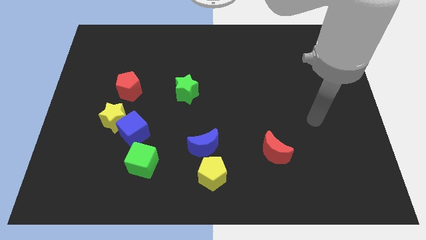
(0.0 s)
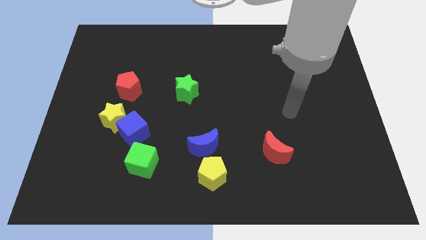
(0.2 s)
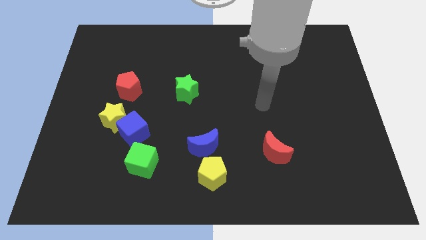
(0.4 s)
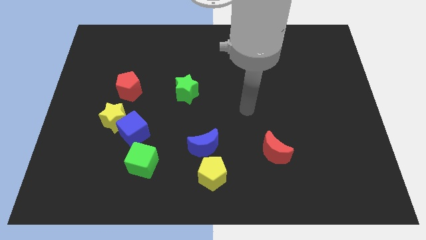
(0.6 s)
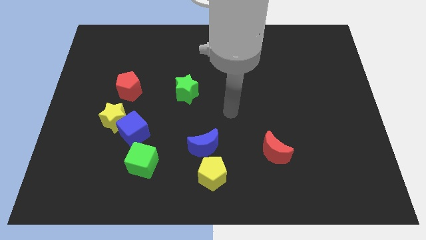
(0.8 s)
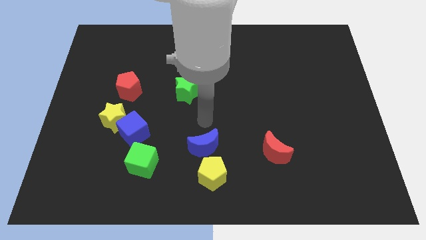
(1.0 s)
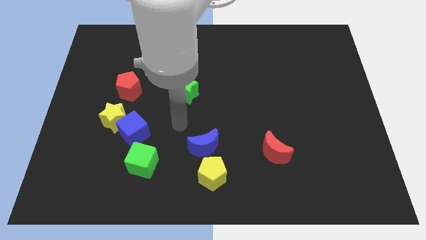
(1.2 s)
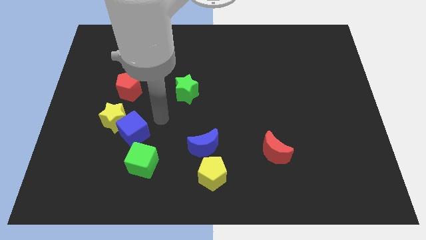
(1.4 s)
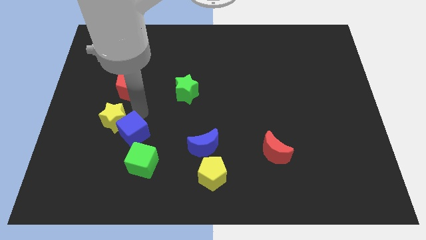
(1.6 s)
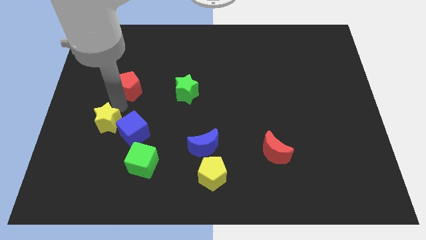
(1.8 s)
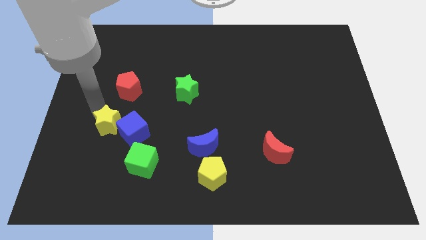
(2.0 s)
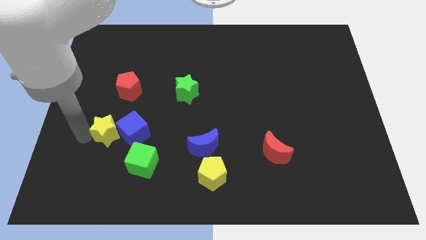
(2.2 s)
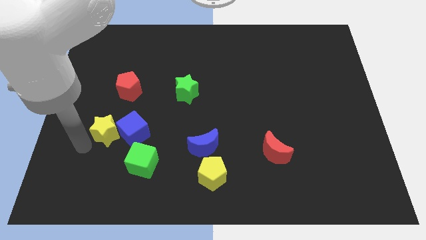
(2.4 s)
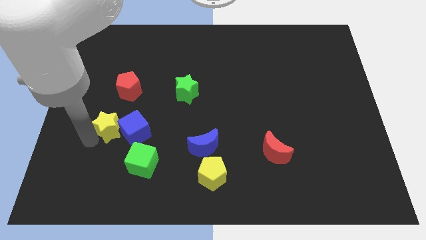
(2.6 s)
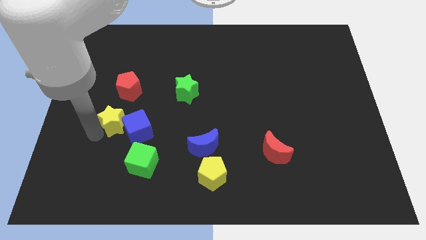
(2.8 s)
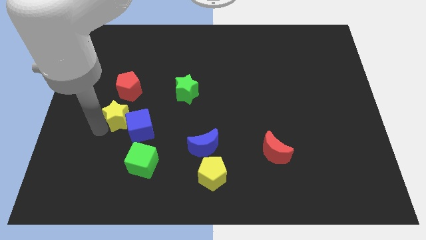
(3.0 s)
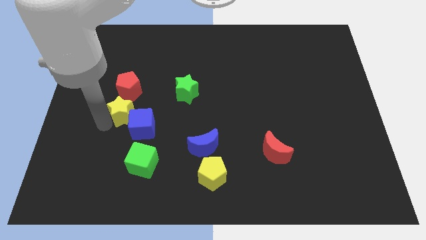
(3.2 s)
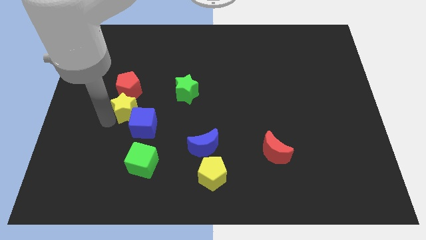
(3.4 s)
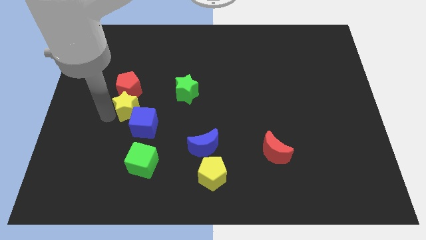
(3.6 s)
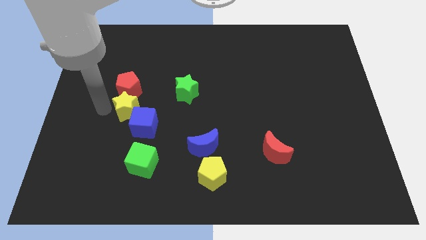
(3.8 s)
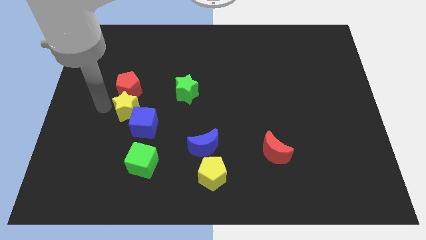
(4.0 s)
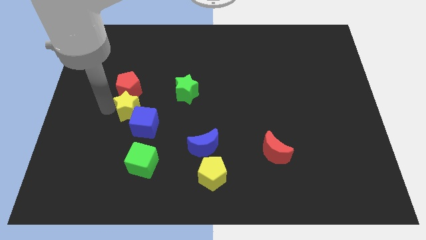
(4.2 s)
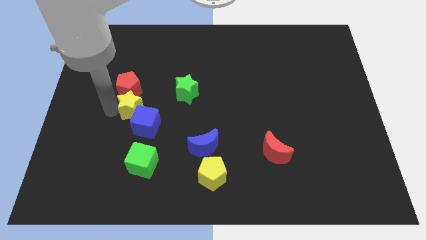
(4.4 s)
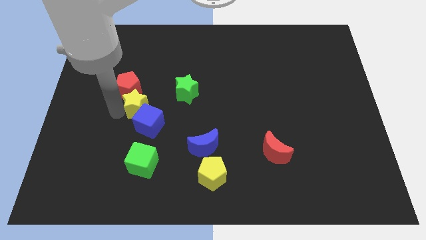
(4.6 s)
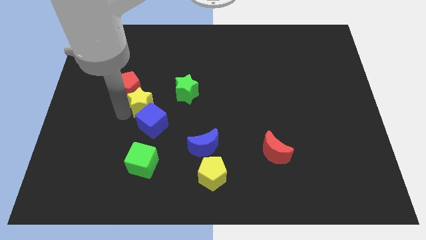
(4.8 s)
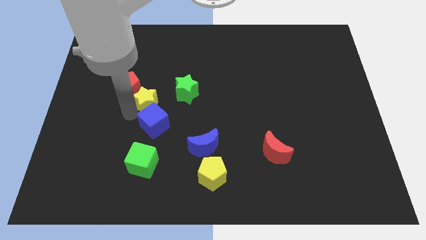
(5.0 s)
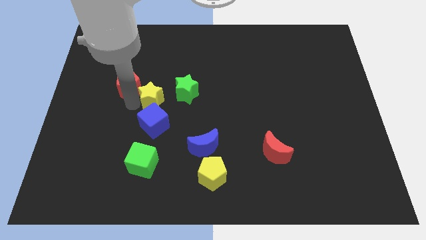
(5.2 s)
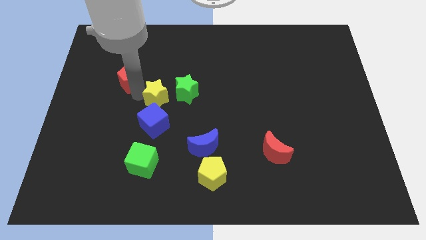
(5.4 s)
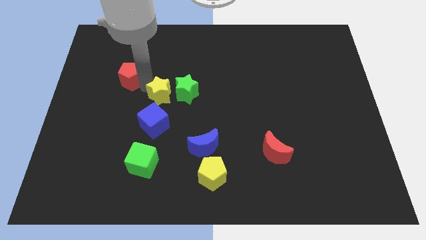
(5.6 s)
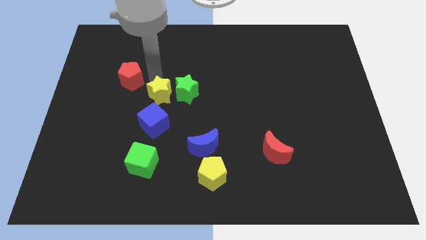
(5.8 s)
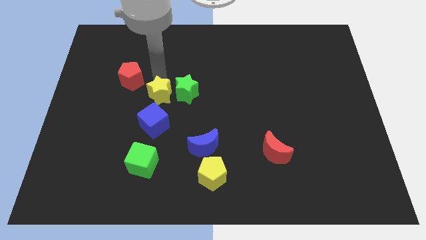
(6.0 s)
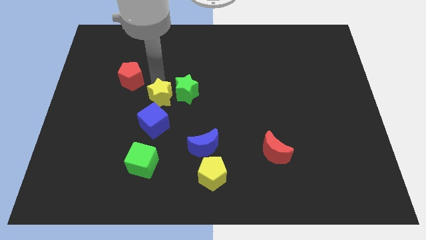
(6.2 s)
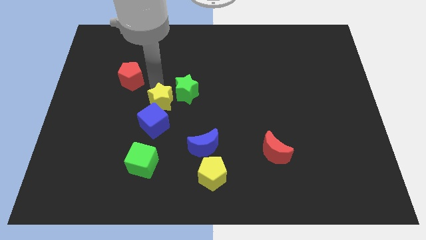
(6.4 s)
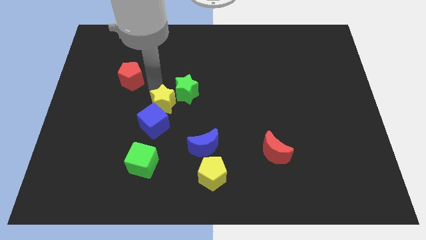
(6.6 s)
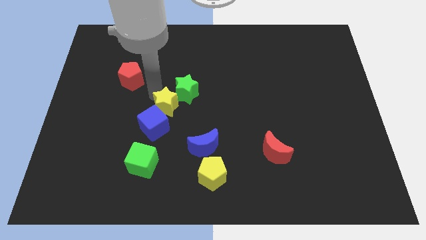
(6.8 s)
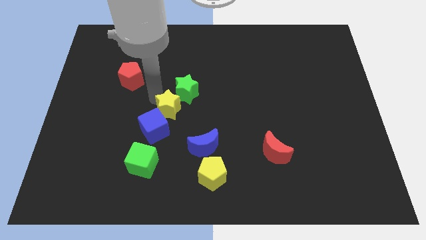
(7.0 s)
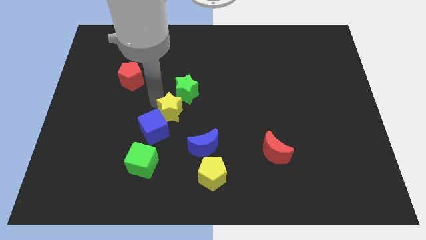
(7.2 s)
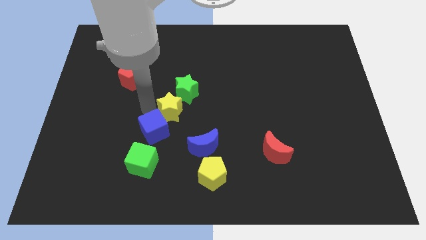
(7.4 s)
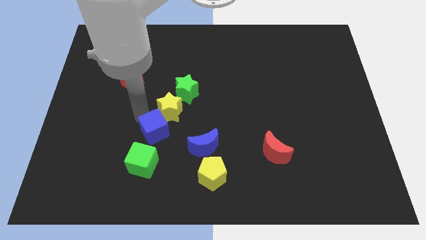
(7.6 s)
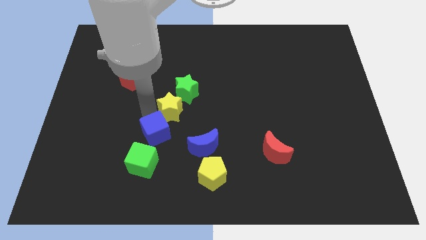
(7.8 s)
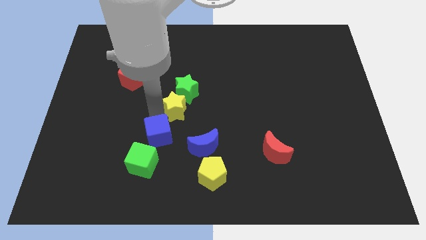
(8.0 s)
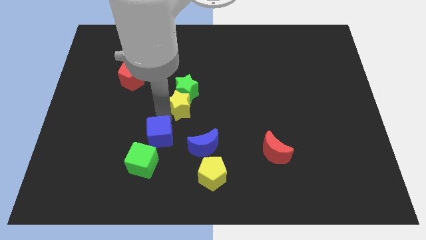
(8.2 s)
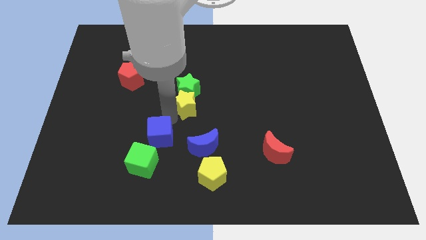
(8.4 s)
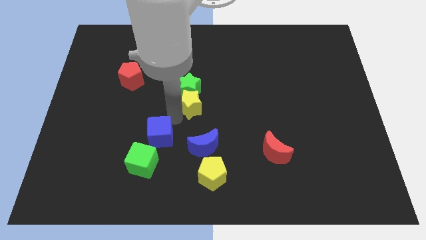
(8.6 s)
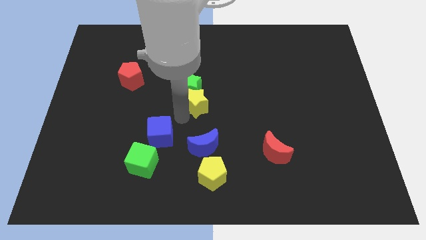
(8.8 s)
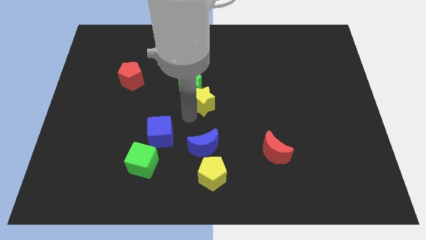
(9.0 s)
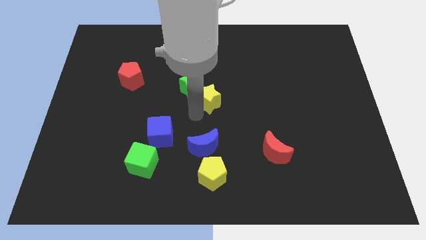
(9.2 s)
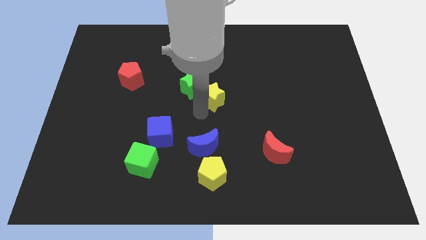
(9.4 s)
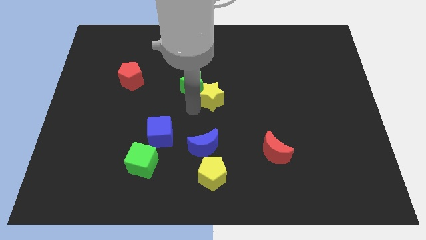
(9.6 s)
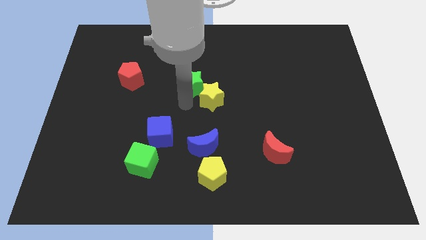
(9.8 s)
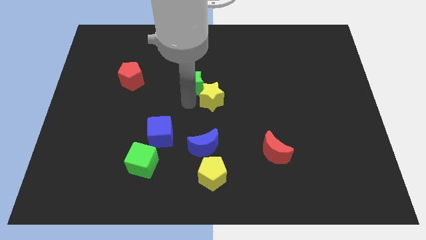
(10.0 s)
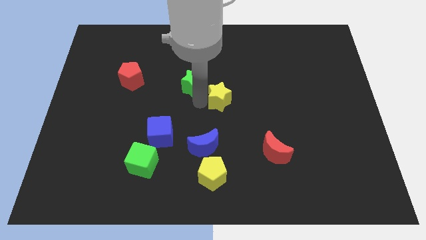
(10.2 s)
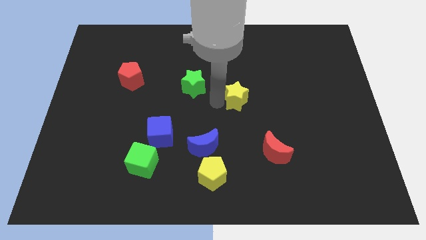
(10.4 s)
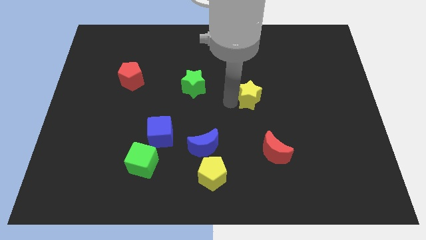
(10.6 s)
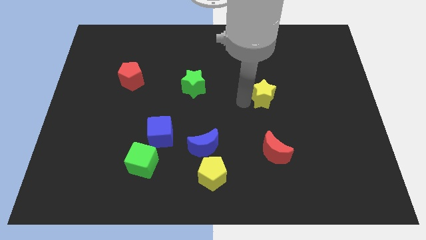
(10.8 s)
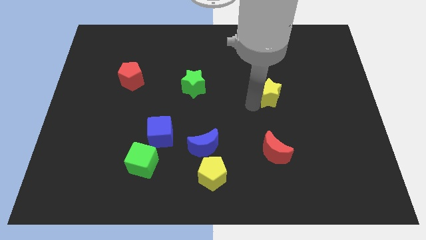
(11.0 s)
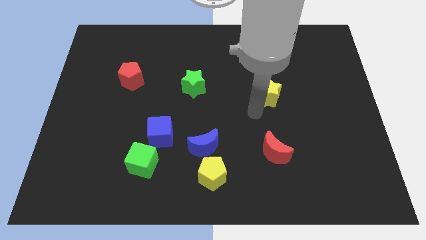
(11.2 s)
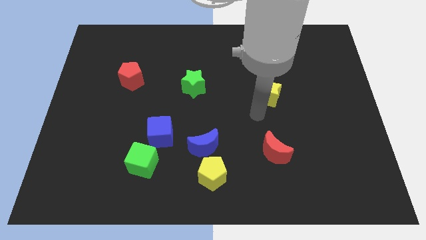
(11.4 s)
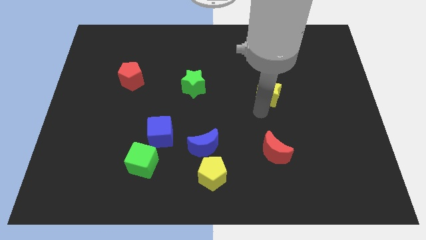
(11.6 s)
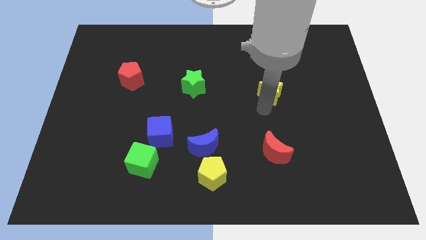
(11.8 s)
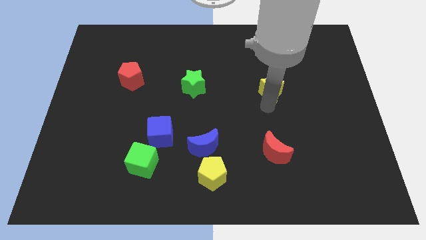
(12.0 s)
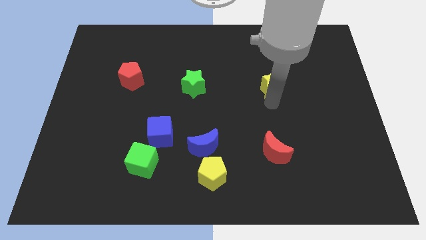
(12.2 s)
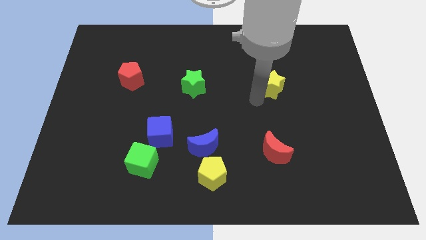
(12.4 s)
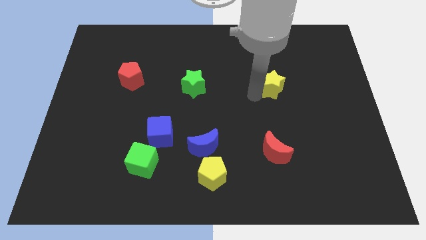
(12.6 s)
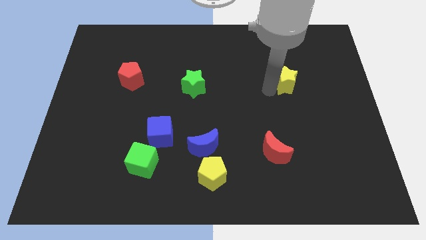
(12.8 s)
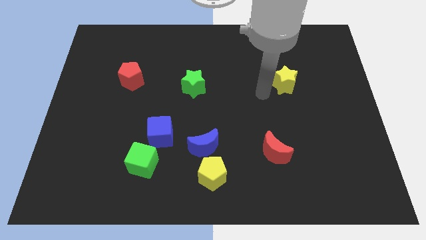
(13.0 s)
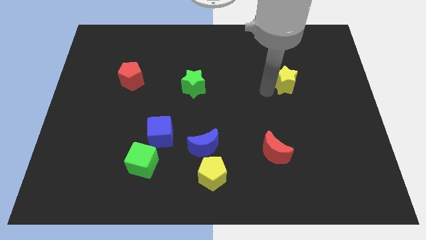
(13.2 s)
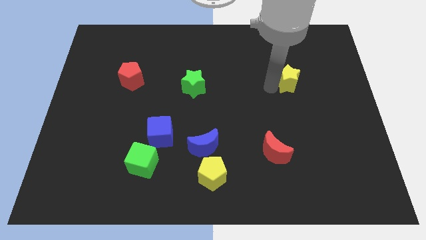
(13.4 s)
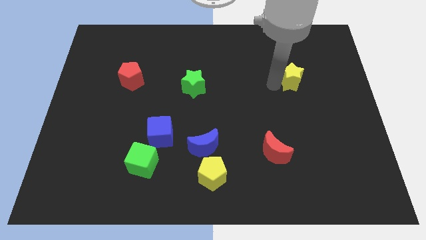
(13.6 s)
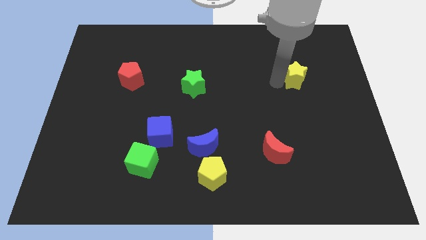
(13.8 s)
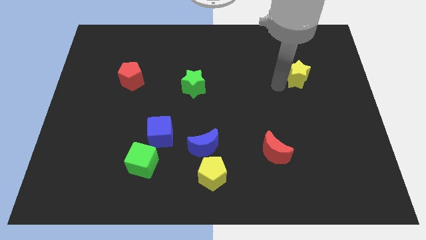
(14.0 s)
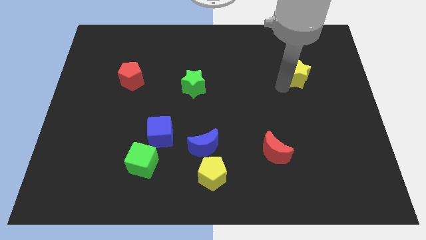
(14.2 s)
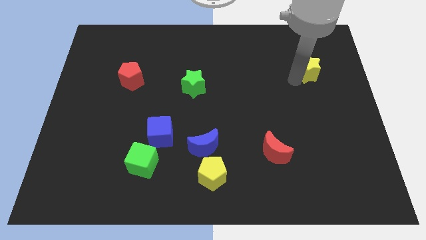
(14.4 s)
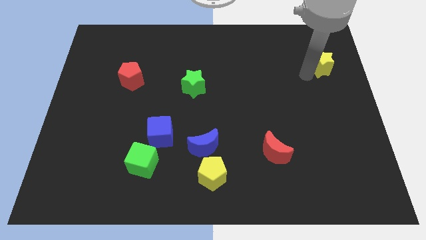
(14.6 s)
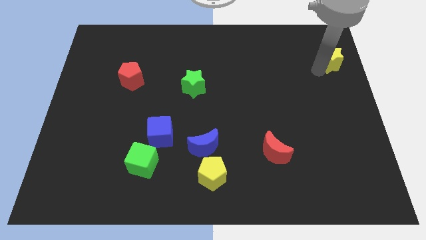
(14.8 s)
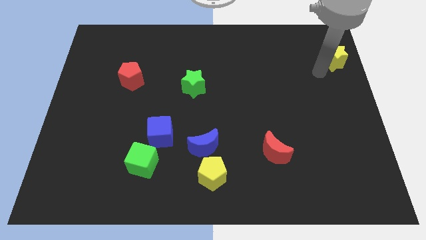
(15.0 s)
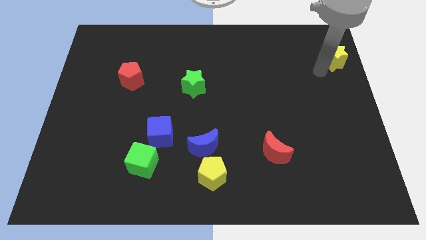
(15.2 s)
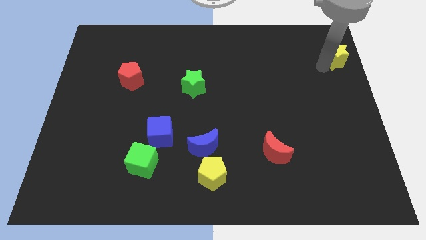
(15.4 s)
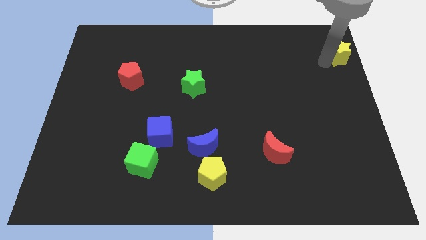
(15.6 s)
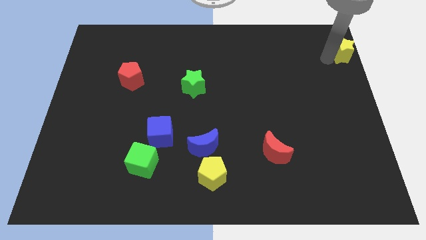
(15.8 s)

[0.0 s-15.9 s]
push the yellow star to the top right corner
